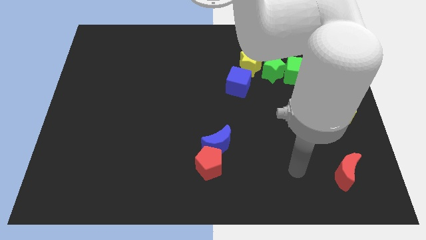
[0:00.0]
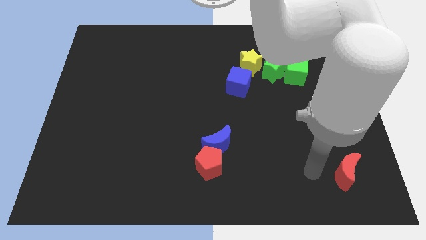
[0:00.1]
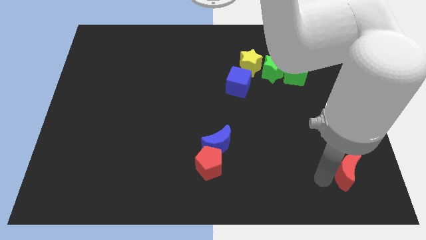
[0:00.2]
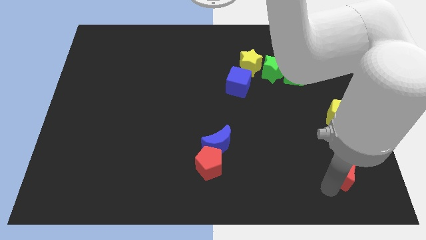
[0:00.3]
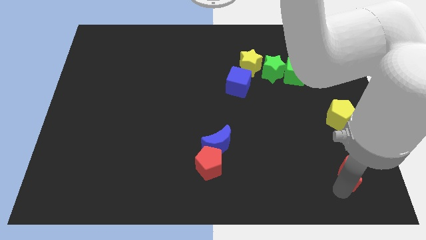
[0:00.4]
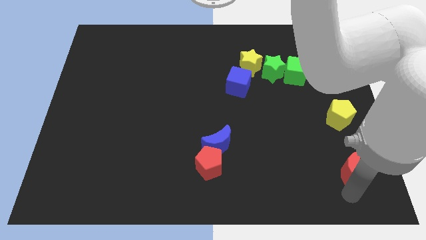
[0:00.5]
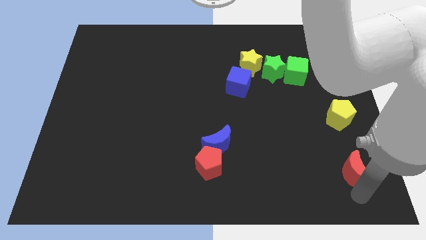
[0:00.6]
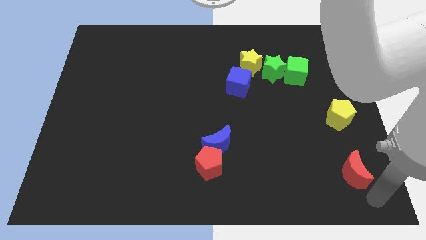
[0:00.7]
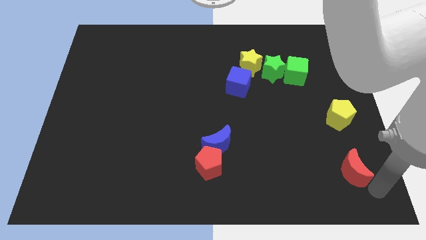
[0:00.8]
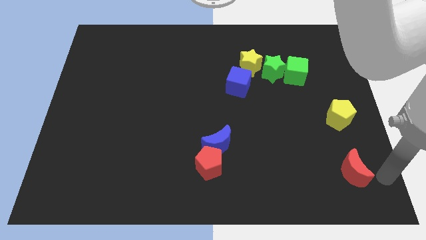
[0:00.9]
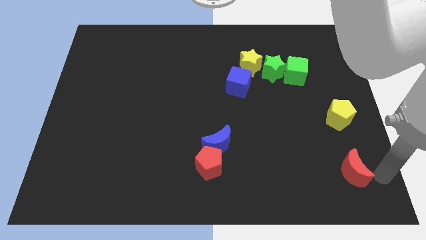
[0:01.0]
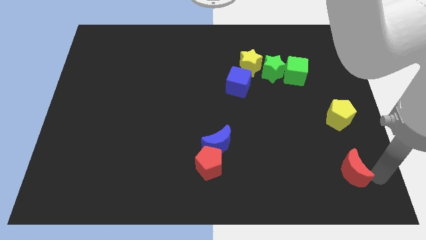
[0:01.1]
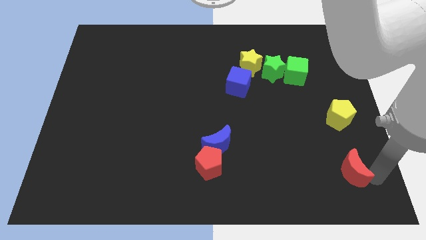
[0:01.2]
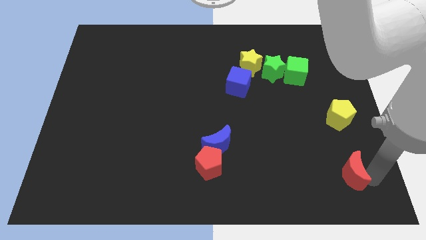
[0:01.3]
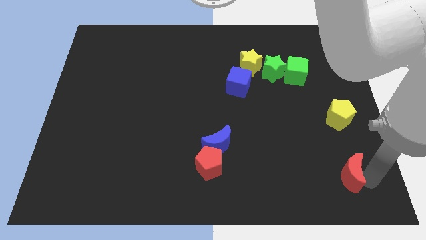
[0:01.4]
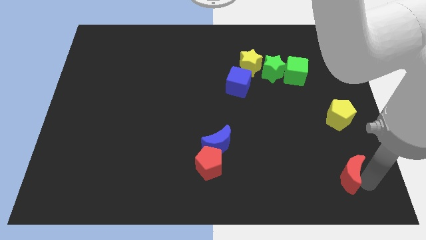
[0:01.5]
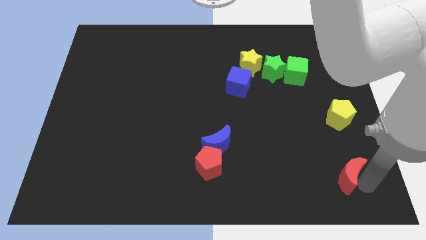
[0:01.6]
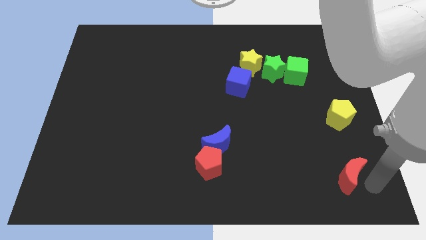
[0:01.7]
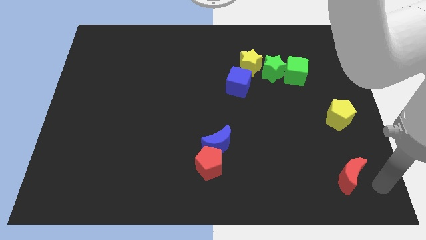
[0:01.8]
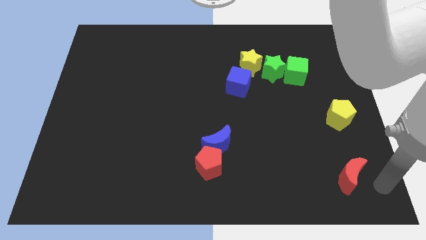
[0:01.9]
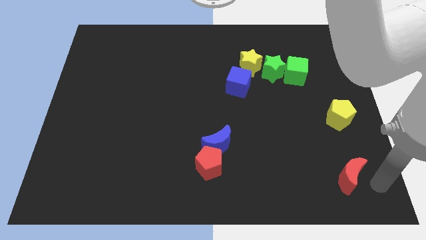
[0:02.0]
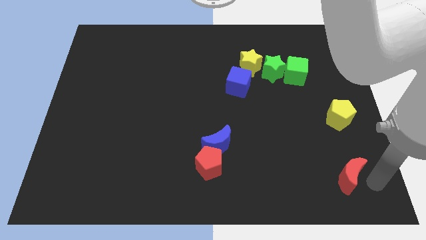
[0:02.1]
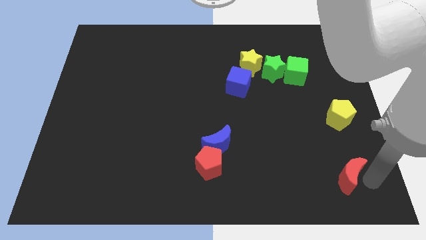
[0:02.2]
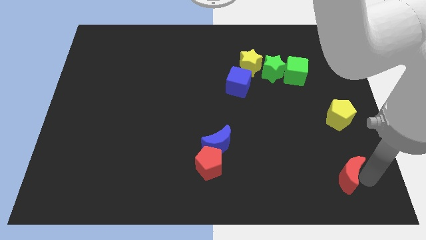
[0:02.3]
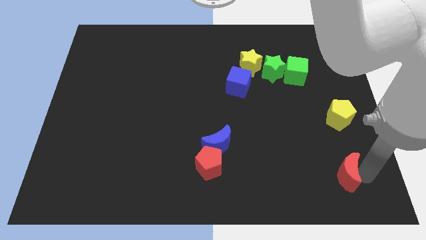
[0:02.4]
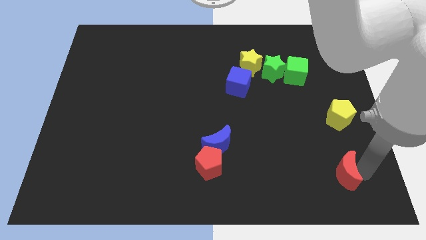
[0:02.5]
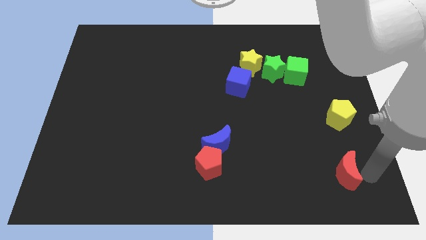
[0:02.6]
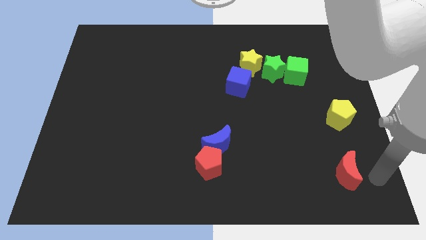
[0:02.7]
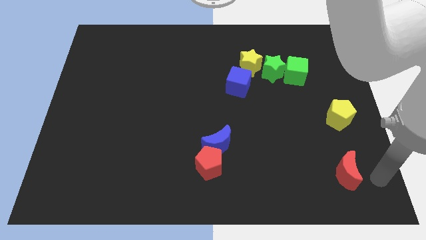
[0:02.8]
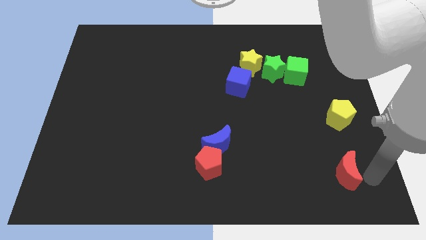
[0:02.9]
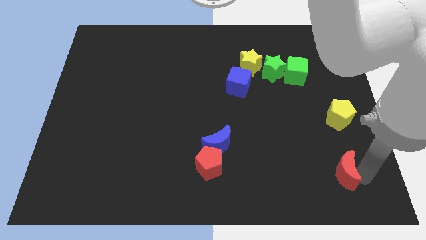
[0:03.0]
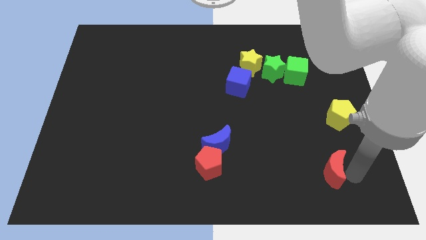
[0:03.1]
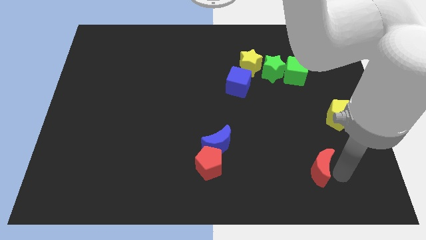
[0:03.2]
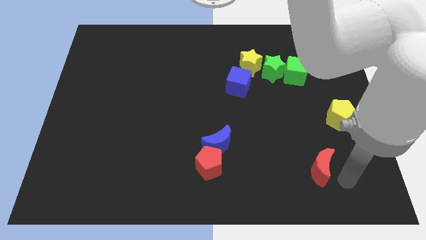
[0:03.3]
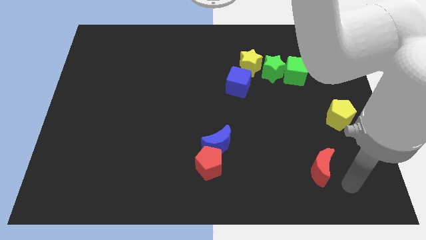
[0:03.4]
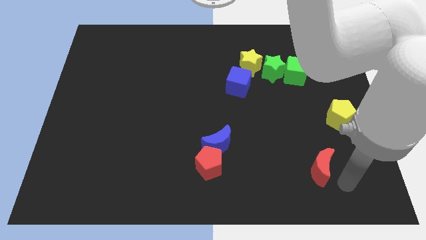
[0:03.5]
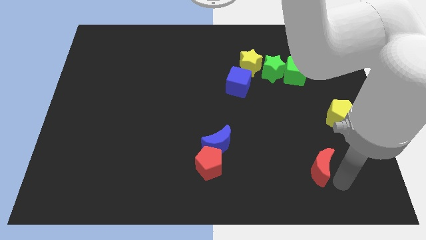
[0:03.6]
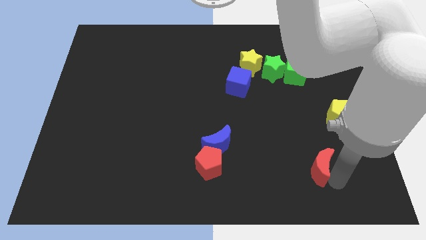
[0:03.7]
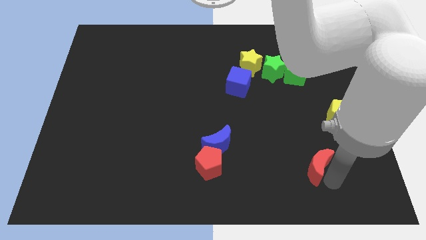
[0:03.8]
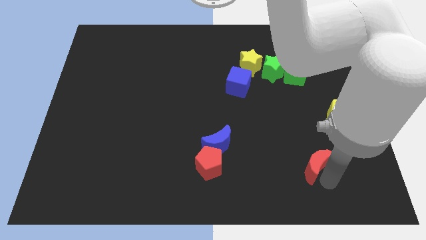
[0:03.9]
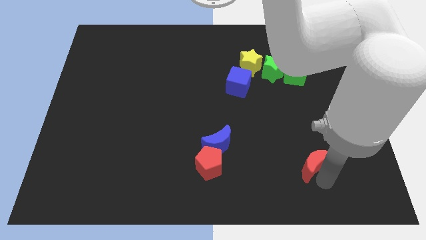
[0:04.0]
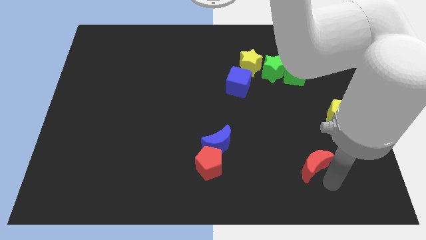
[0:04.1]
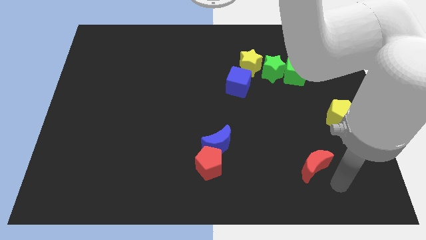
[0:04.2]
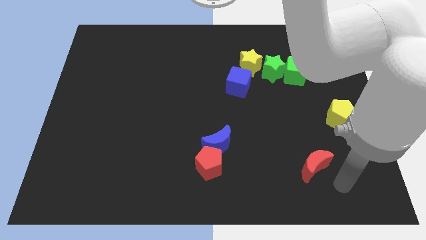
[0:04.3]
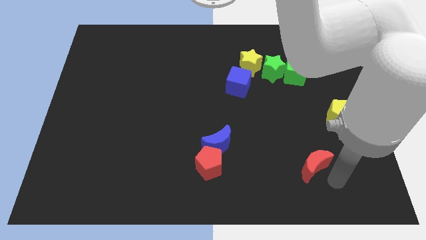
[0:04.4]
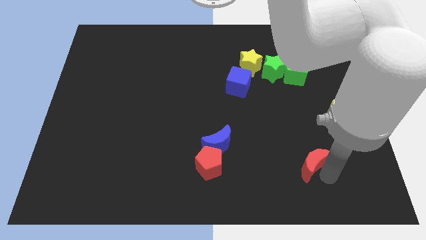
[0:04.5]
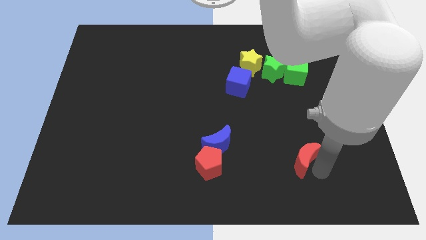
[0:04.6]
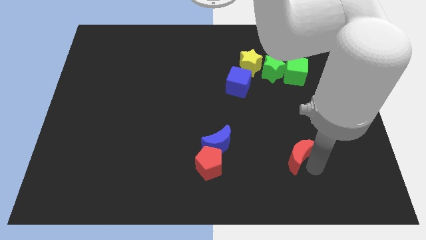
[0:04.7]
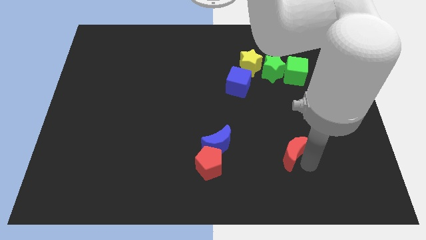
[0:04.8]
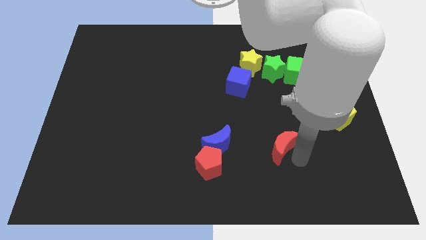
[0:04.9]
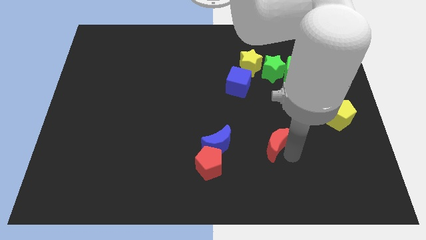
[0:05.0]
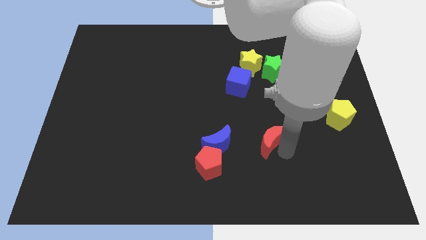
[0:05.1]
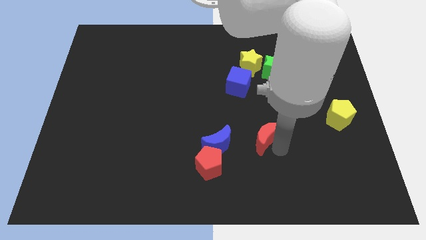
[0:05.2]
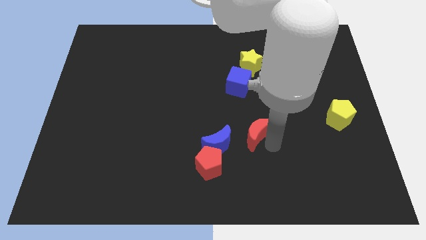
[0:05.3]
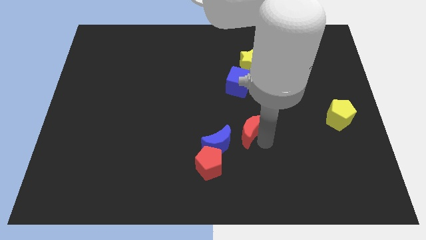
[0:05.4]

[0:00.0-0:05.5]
slide the red moon to the center
